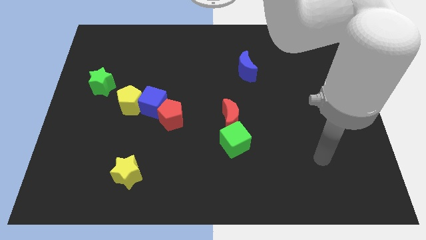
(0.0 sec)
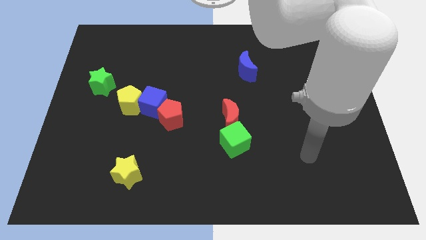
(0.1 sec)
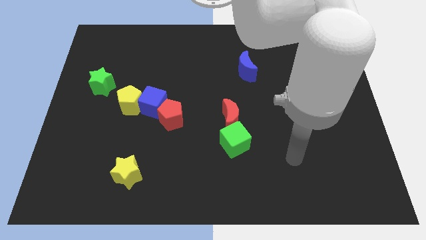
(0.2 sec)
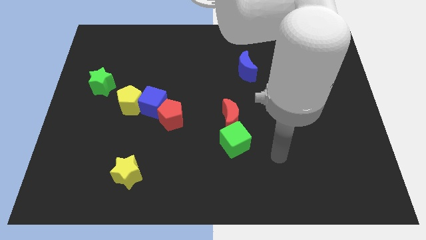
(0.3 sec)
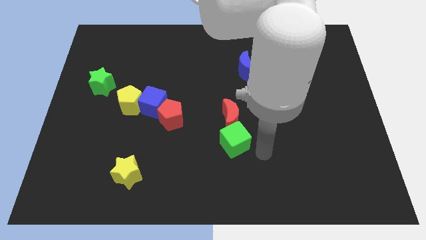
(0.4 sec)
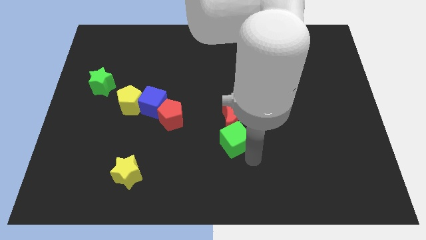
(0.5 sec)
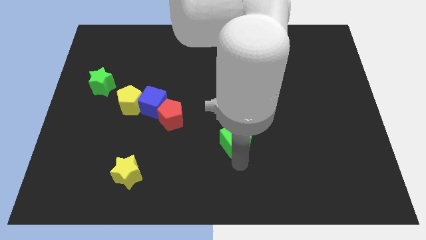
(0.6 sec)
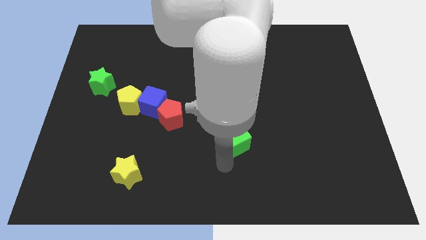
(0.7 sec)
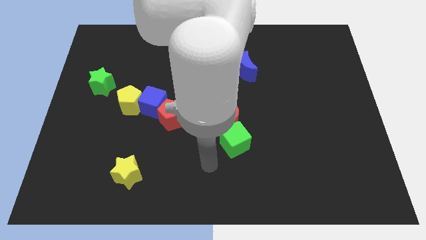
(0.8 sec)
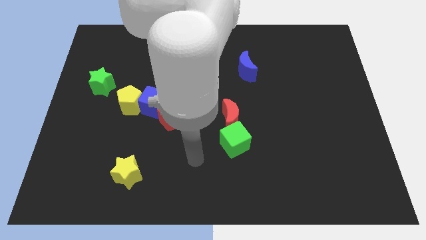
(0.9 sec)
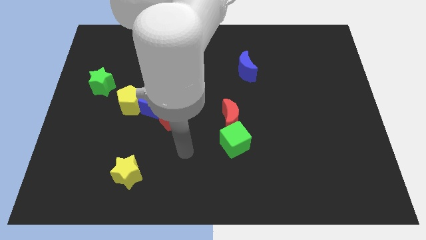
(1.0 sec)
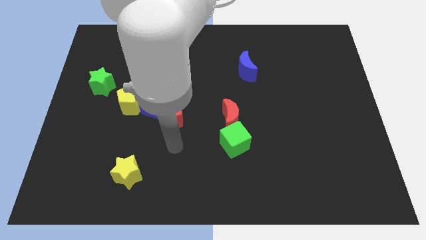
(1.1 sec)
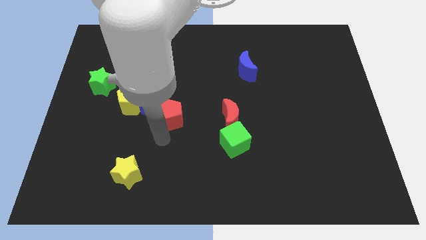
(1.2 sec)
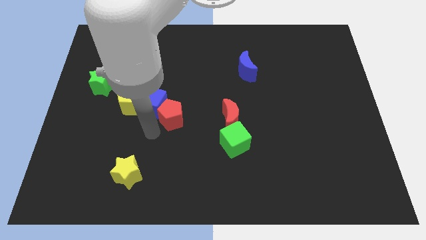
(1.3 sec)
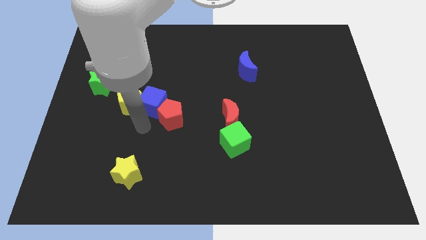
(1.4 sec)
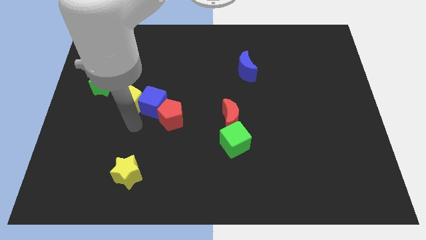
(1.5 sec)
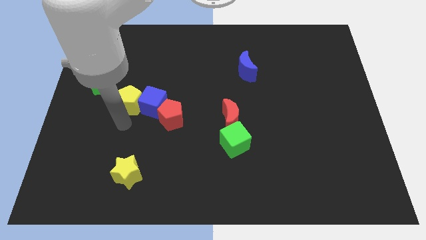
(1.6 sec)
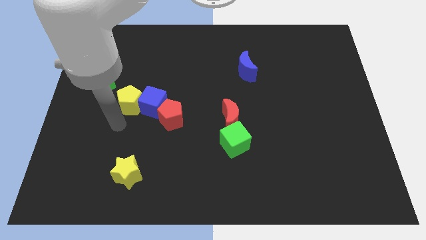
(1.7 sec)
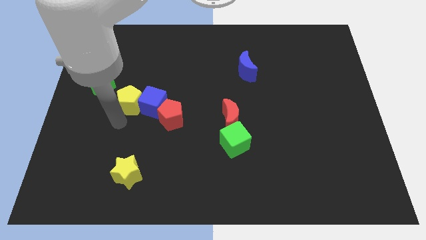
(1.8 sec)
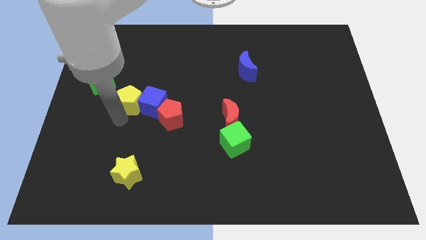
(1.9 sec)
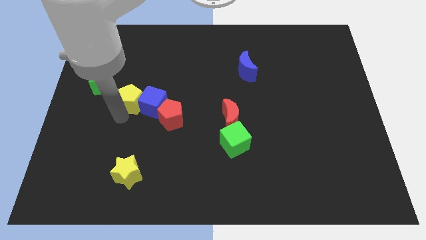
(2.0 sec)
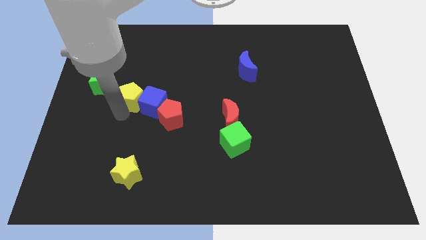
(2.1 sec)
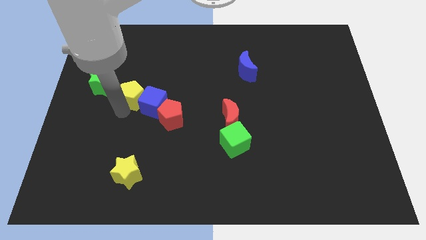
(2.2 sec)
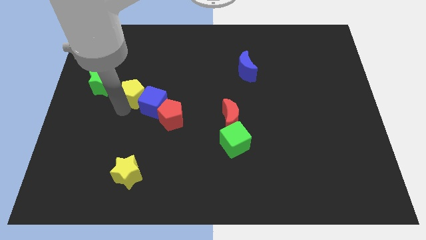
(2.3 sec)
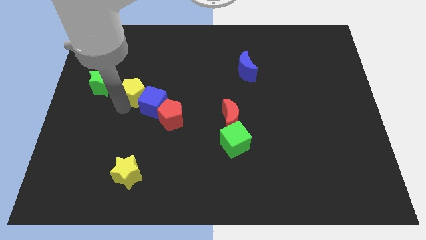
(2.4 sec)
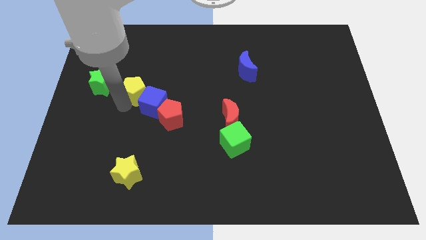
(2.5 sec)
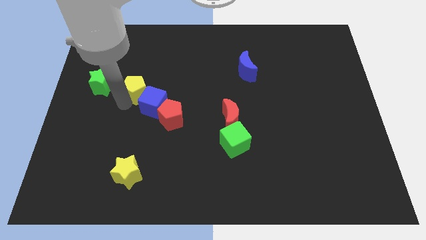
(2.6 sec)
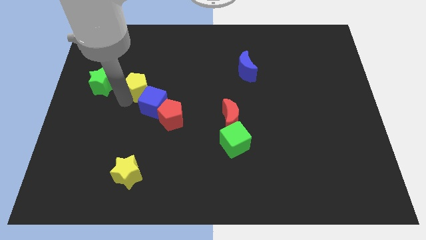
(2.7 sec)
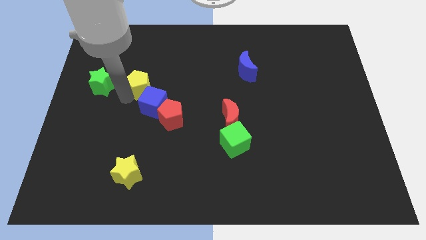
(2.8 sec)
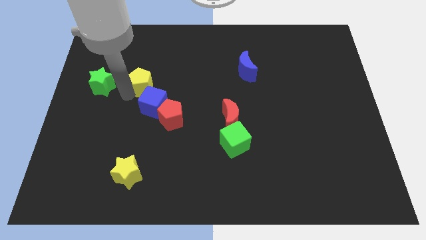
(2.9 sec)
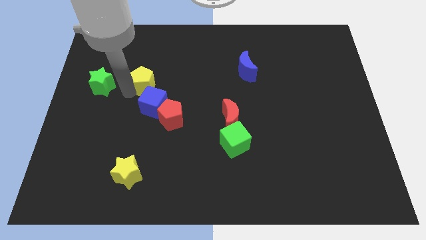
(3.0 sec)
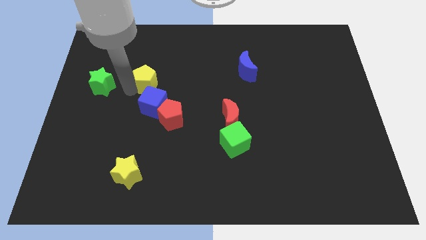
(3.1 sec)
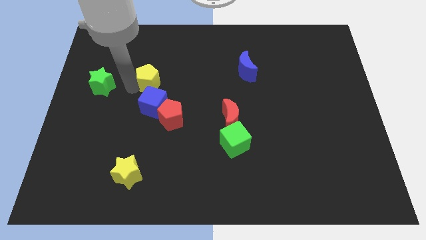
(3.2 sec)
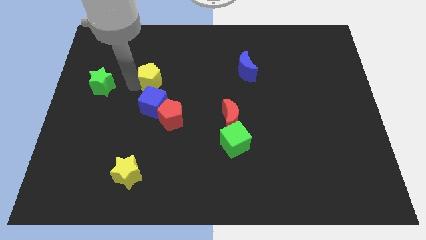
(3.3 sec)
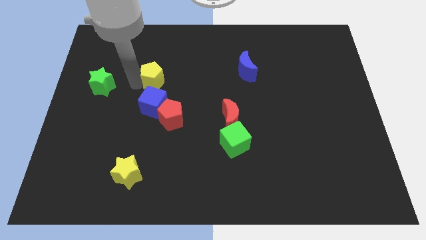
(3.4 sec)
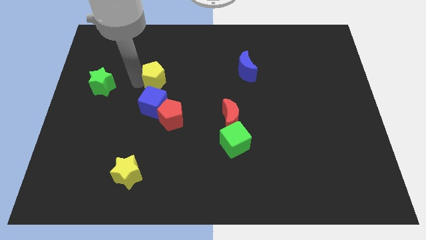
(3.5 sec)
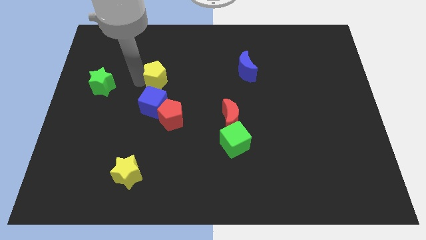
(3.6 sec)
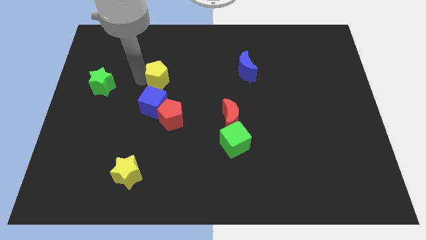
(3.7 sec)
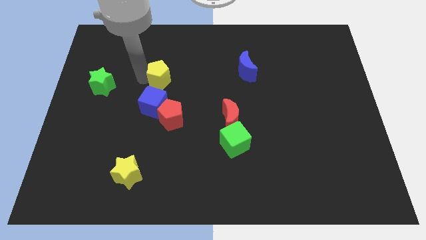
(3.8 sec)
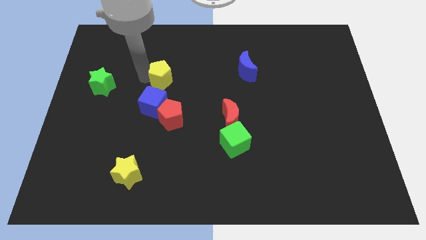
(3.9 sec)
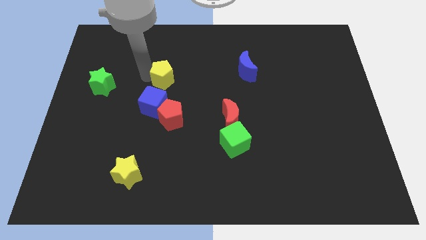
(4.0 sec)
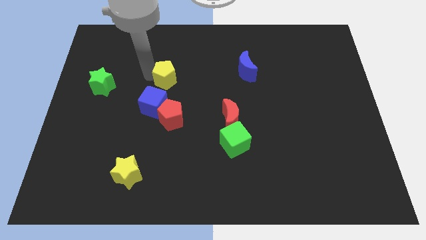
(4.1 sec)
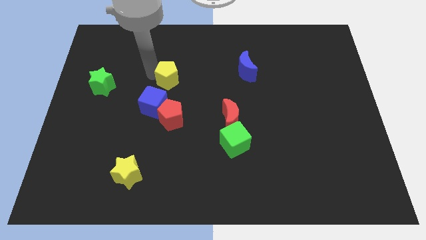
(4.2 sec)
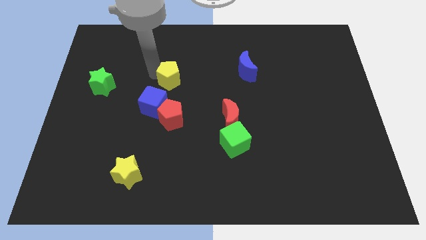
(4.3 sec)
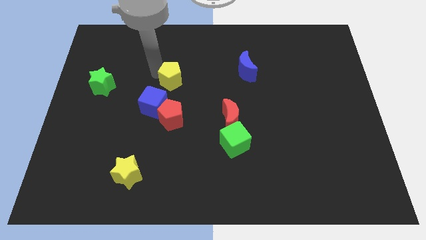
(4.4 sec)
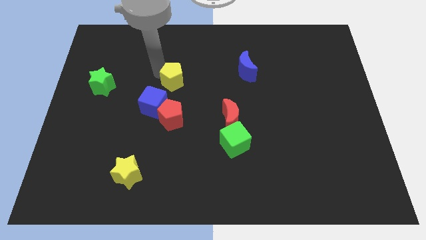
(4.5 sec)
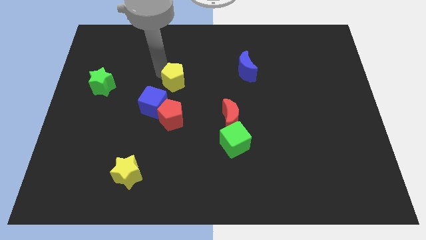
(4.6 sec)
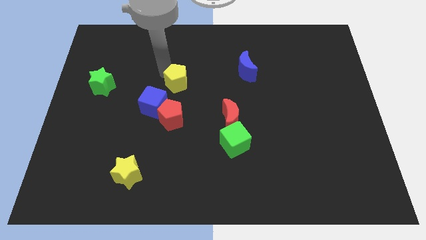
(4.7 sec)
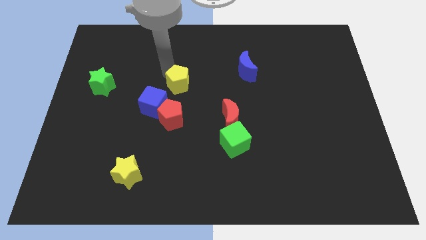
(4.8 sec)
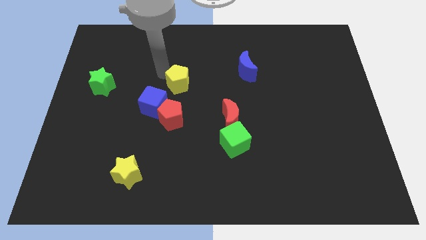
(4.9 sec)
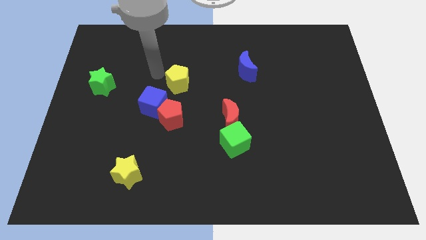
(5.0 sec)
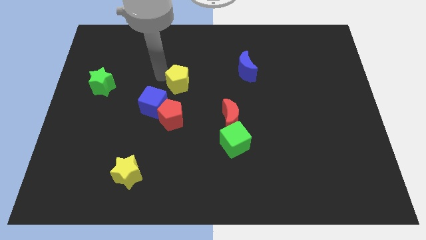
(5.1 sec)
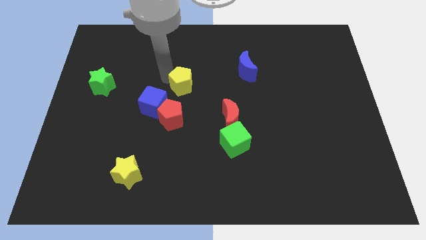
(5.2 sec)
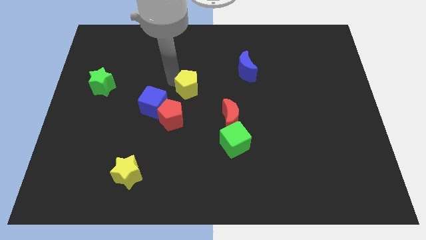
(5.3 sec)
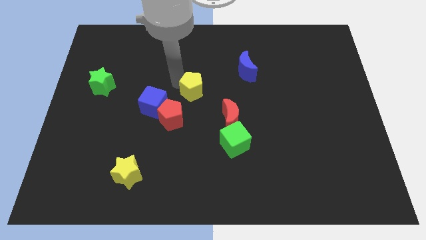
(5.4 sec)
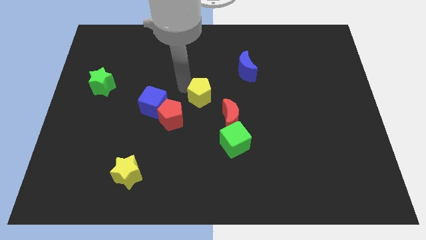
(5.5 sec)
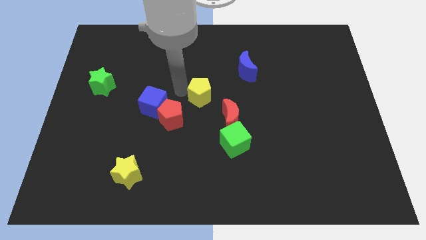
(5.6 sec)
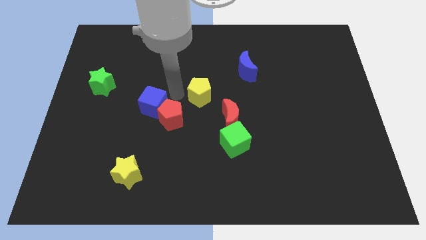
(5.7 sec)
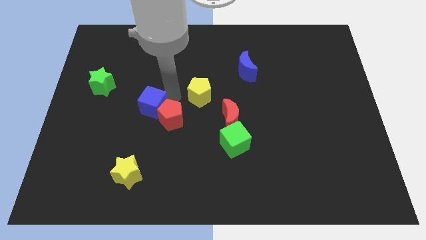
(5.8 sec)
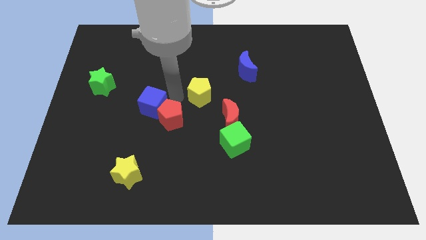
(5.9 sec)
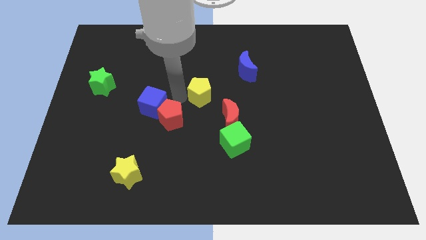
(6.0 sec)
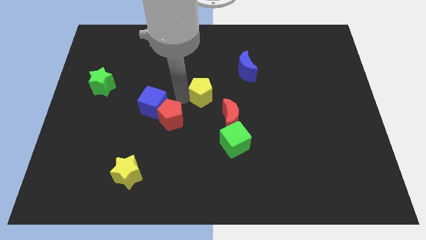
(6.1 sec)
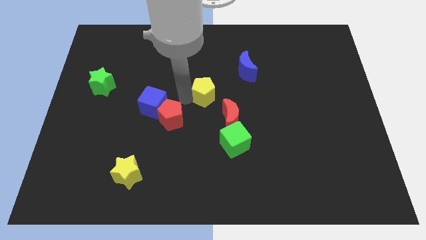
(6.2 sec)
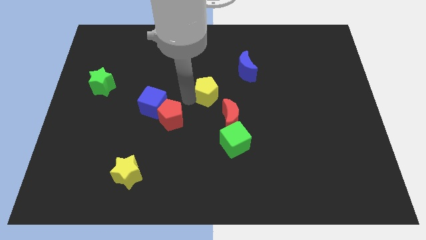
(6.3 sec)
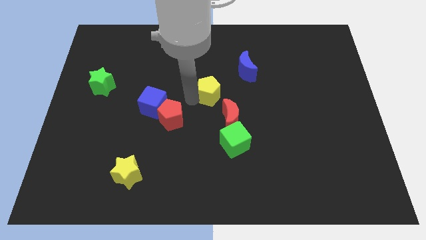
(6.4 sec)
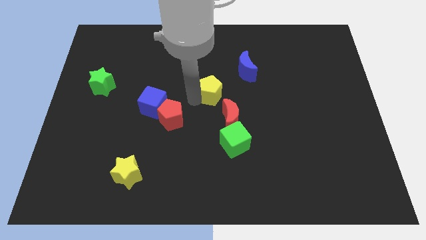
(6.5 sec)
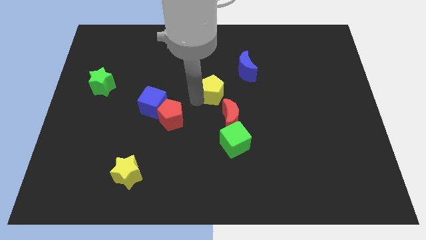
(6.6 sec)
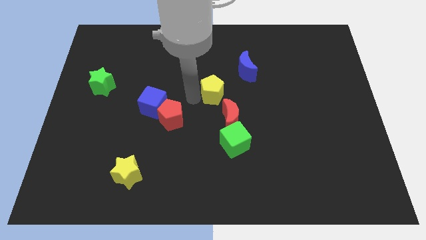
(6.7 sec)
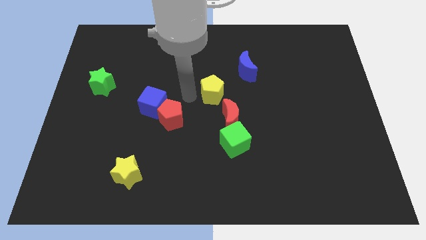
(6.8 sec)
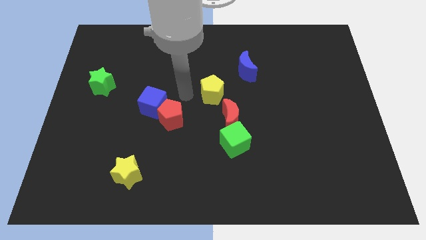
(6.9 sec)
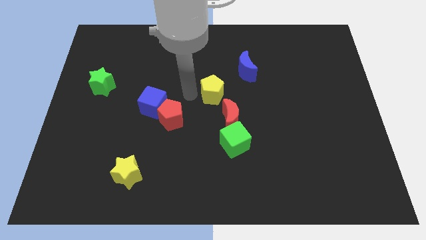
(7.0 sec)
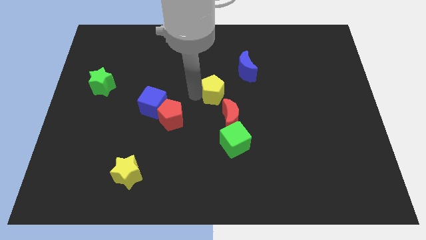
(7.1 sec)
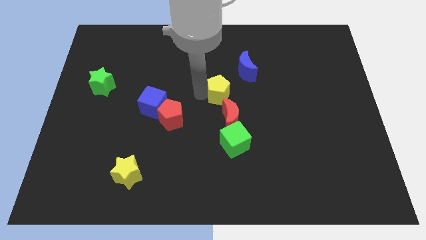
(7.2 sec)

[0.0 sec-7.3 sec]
move the yellow pentagon to the right

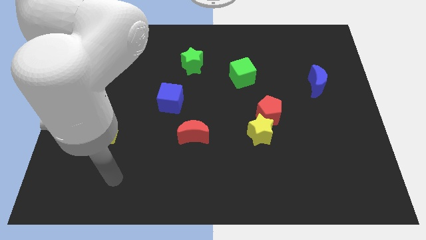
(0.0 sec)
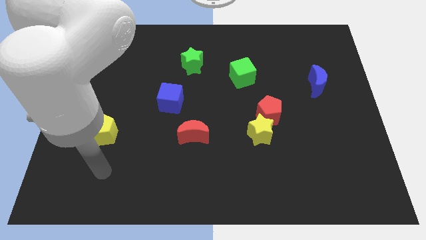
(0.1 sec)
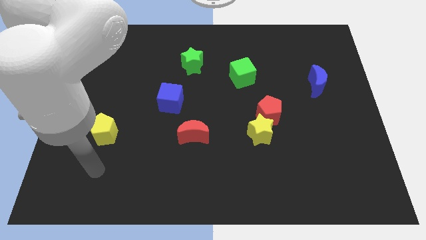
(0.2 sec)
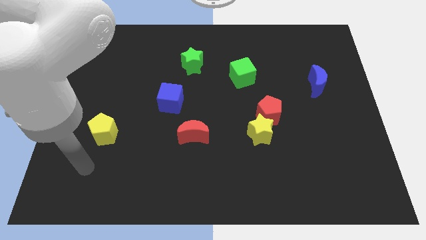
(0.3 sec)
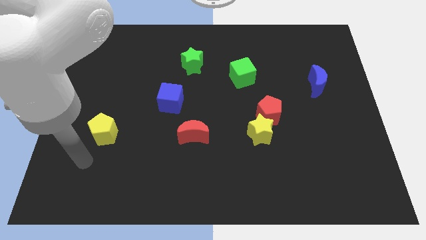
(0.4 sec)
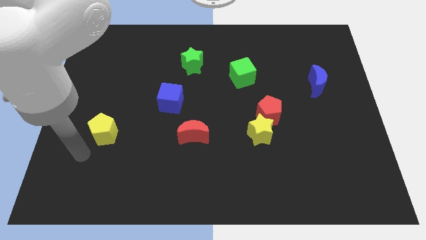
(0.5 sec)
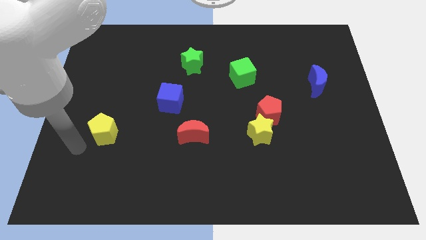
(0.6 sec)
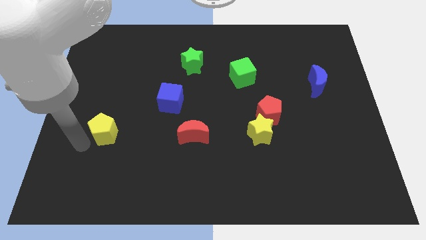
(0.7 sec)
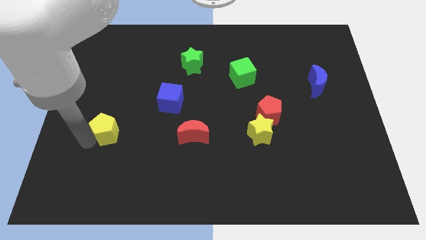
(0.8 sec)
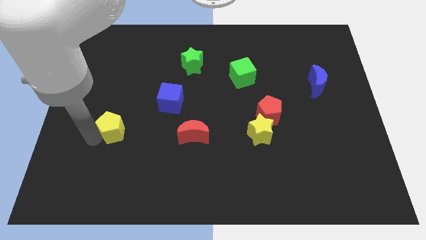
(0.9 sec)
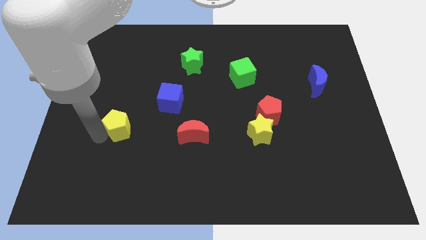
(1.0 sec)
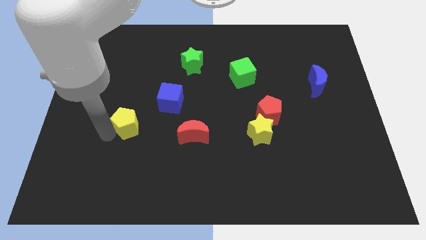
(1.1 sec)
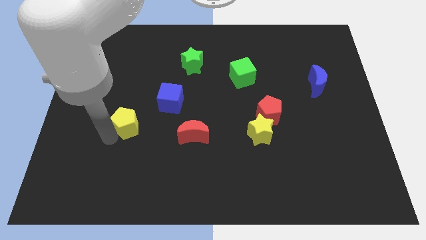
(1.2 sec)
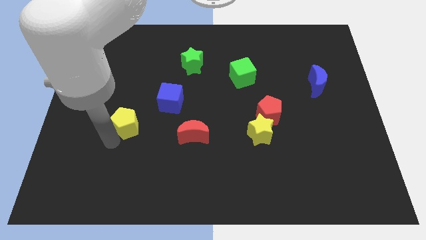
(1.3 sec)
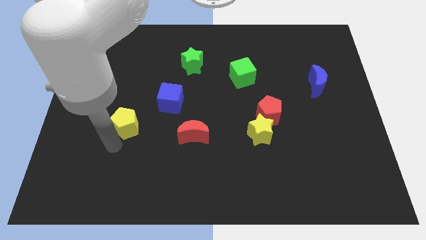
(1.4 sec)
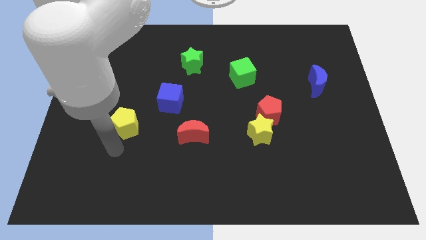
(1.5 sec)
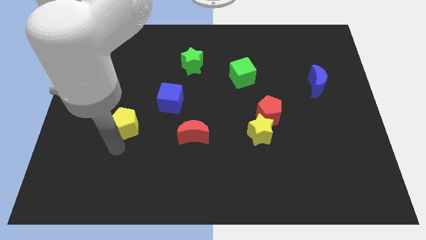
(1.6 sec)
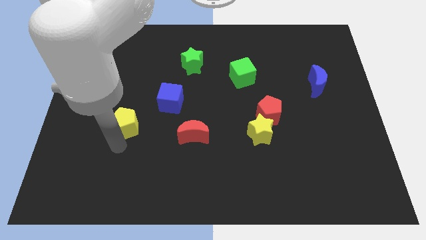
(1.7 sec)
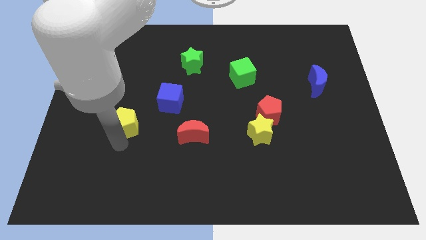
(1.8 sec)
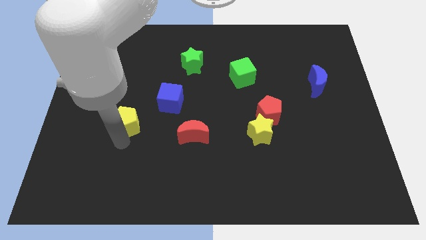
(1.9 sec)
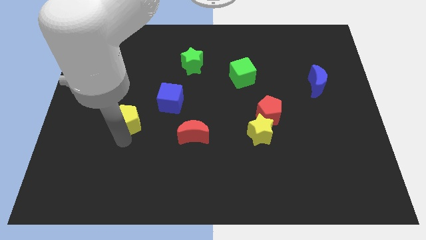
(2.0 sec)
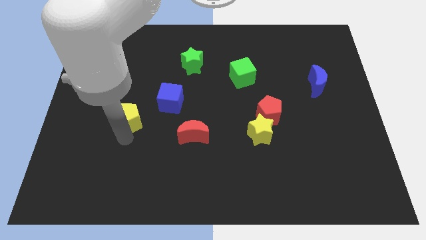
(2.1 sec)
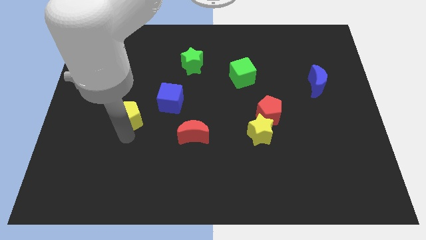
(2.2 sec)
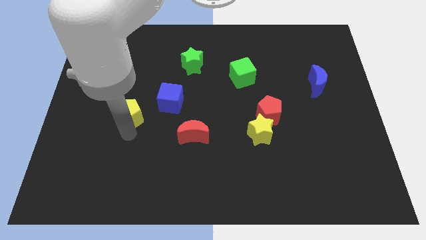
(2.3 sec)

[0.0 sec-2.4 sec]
slightly push the yellow pentagon upwards and then right
